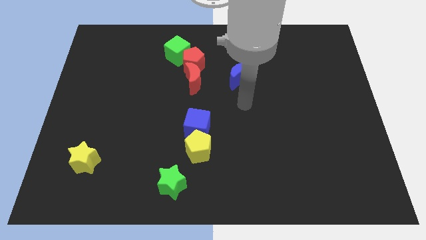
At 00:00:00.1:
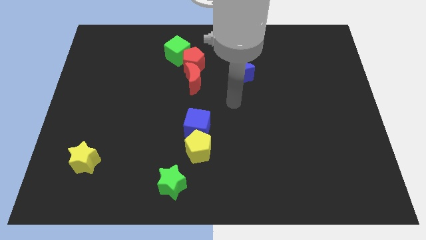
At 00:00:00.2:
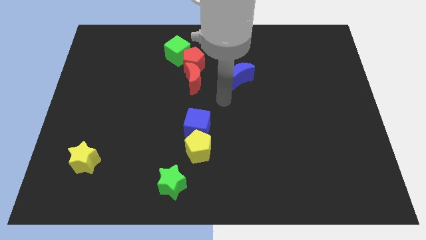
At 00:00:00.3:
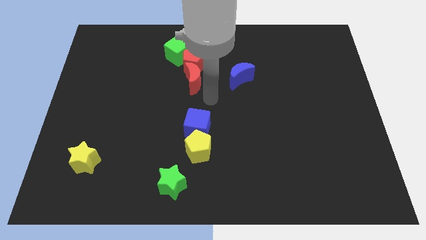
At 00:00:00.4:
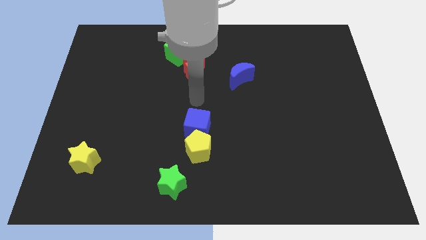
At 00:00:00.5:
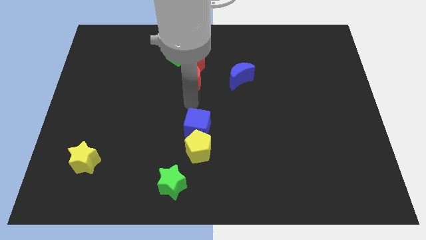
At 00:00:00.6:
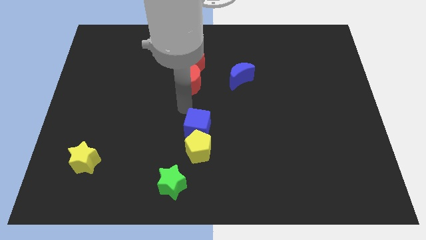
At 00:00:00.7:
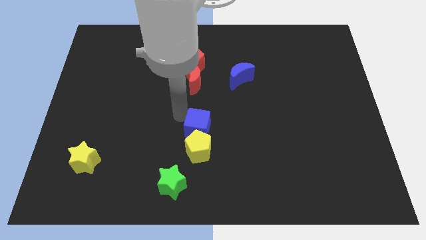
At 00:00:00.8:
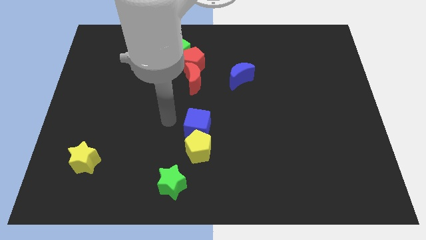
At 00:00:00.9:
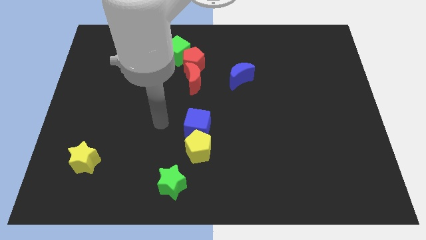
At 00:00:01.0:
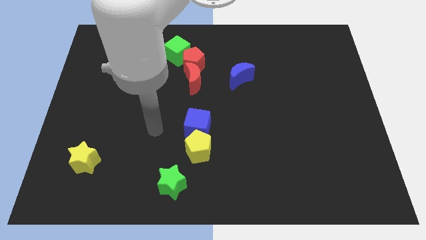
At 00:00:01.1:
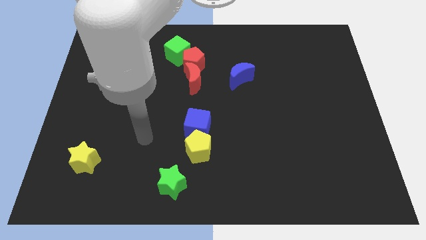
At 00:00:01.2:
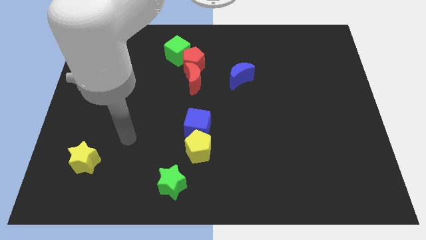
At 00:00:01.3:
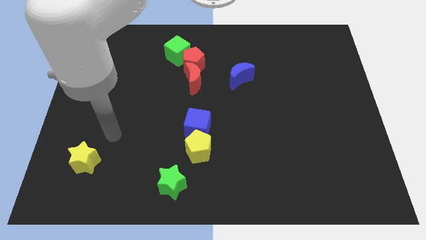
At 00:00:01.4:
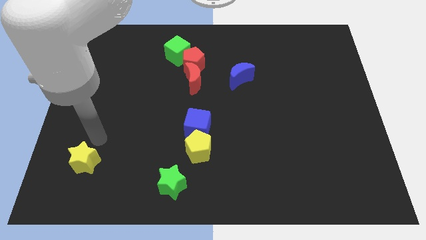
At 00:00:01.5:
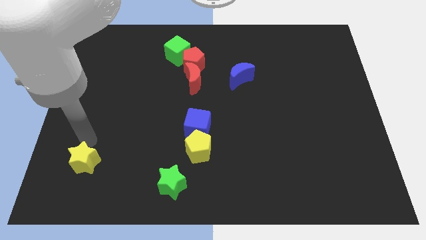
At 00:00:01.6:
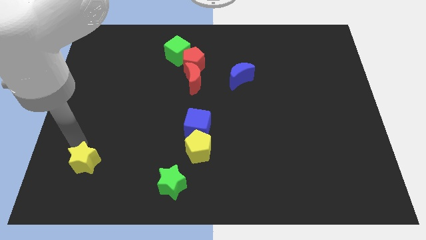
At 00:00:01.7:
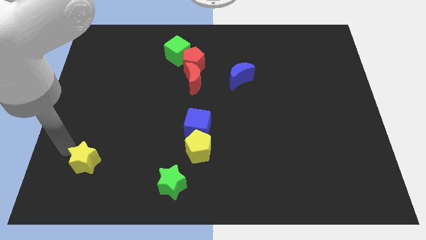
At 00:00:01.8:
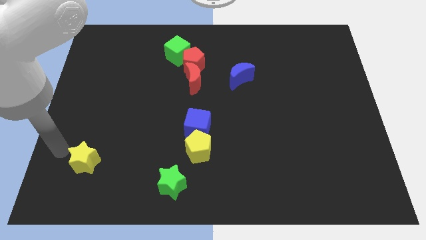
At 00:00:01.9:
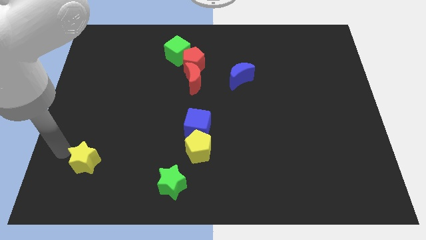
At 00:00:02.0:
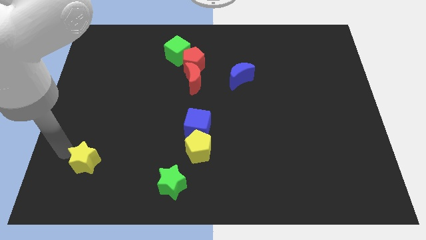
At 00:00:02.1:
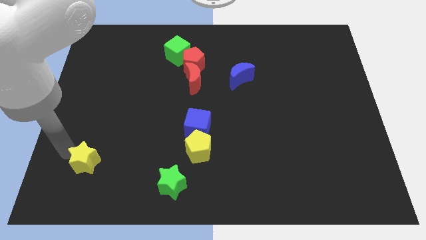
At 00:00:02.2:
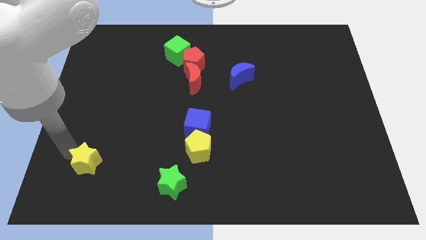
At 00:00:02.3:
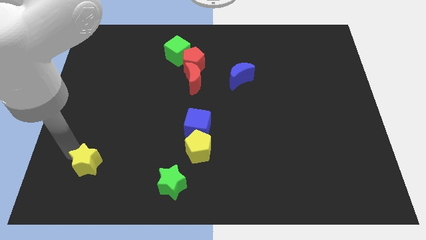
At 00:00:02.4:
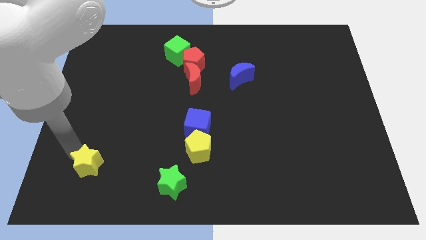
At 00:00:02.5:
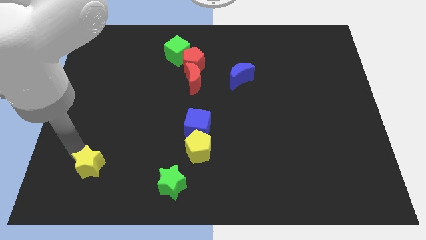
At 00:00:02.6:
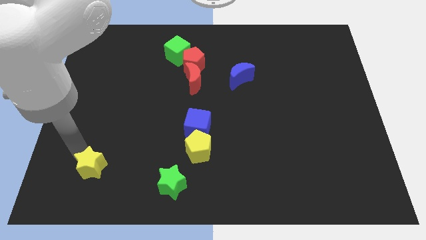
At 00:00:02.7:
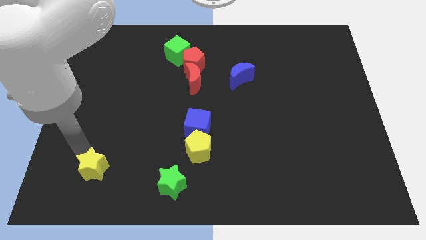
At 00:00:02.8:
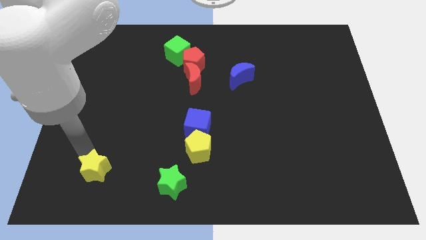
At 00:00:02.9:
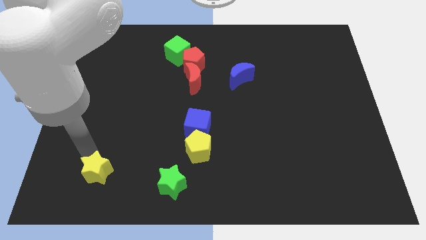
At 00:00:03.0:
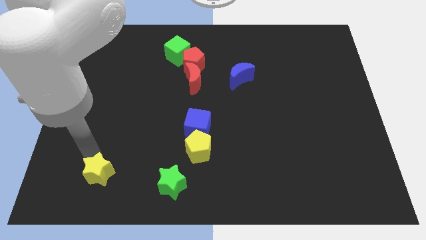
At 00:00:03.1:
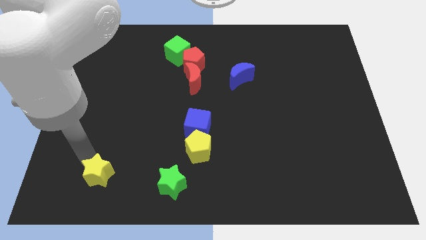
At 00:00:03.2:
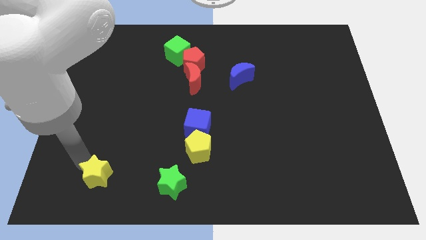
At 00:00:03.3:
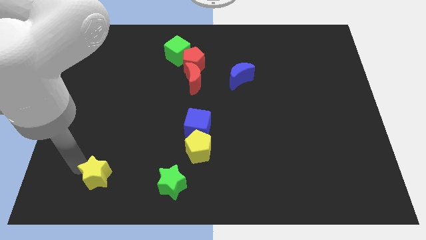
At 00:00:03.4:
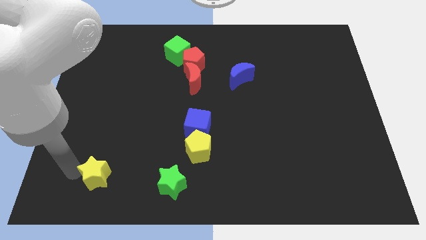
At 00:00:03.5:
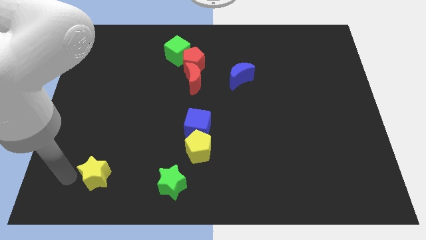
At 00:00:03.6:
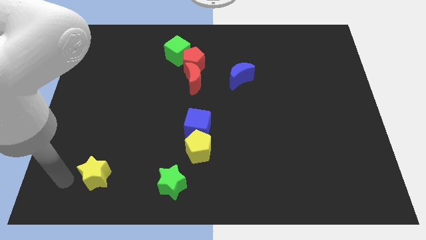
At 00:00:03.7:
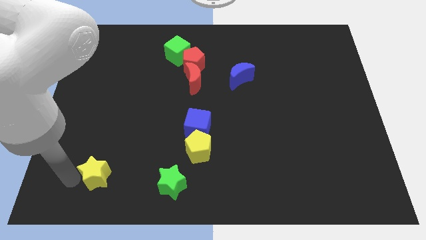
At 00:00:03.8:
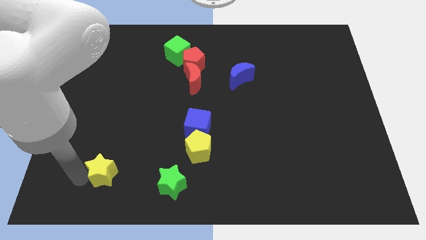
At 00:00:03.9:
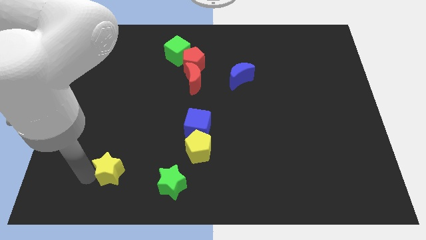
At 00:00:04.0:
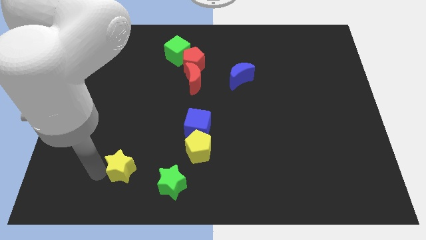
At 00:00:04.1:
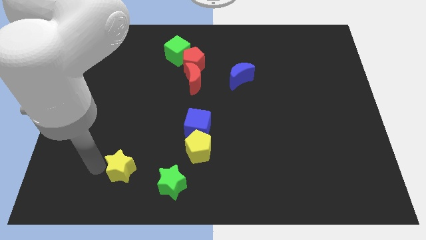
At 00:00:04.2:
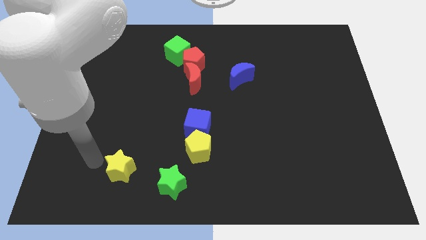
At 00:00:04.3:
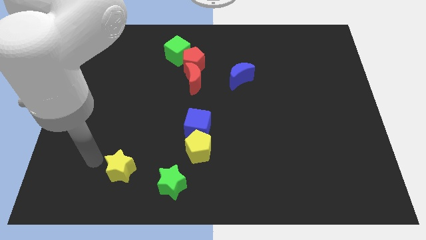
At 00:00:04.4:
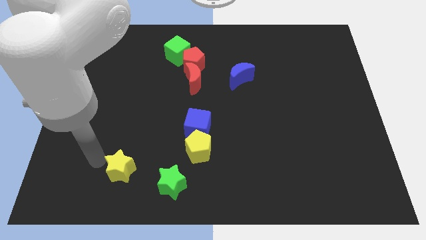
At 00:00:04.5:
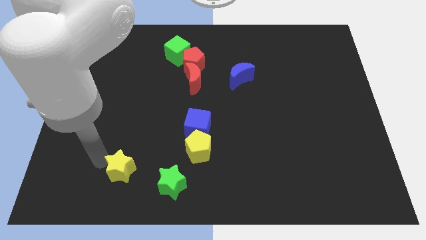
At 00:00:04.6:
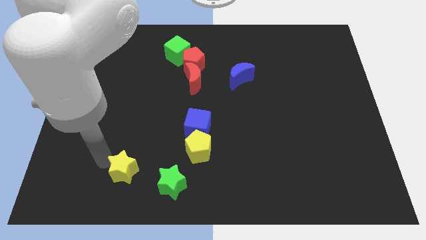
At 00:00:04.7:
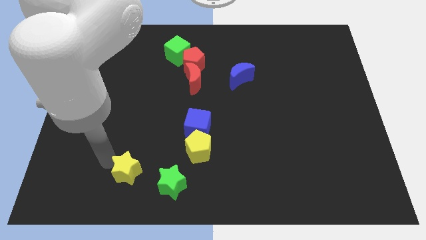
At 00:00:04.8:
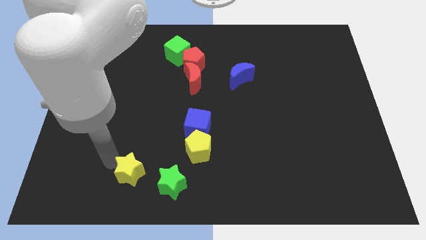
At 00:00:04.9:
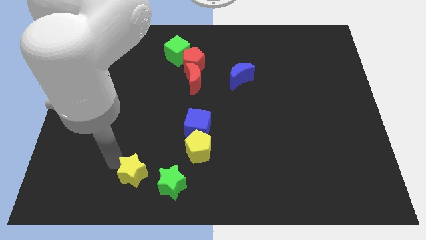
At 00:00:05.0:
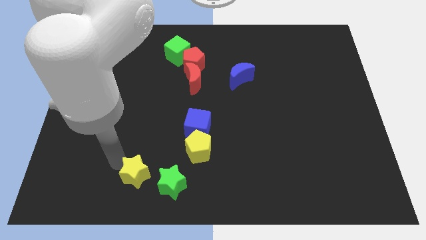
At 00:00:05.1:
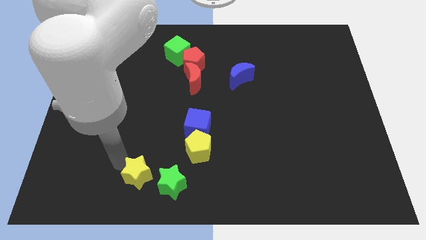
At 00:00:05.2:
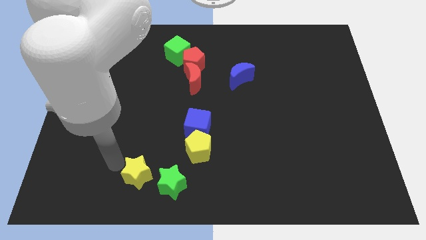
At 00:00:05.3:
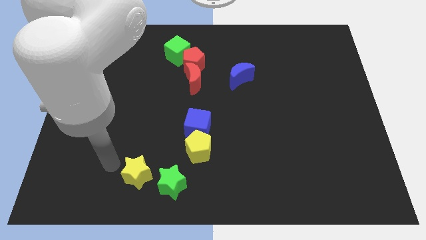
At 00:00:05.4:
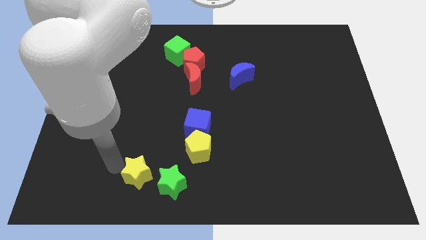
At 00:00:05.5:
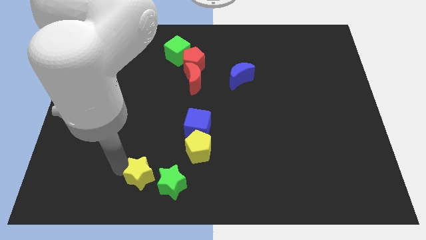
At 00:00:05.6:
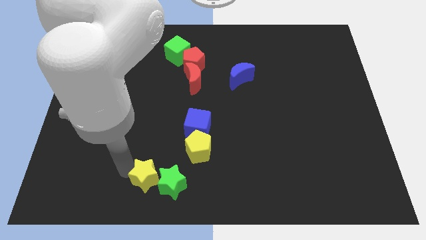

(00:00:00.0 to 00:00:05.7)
put the yellow star towards the green star

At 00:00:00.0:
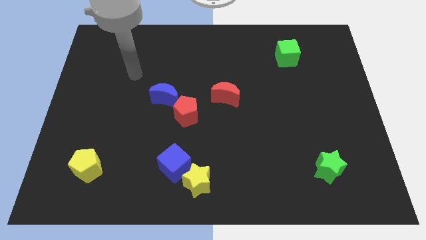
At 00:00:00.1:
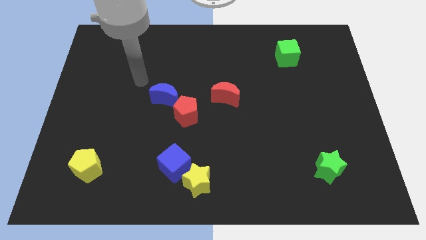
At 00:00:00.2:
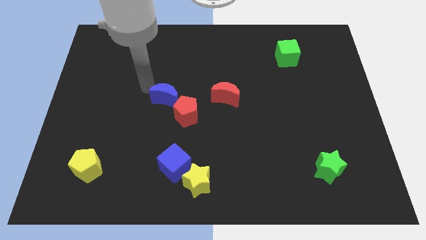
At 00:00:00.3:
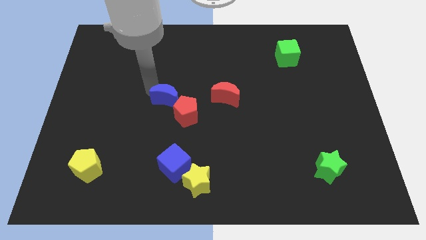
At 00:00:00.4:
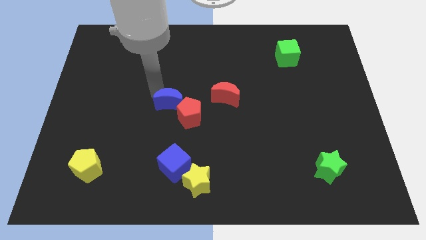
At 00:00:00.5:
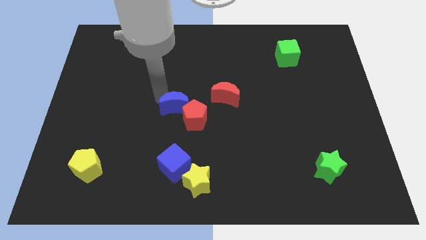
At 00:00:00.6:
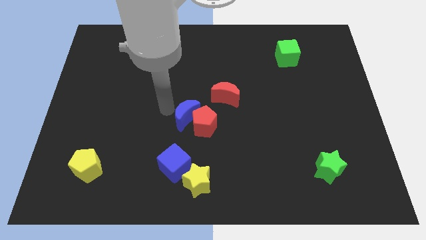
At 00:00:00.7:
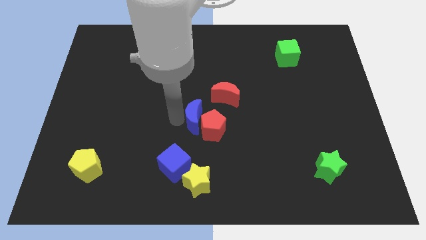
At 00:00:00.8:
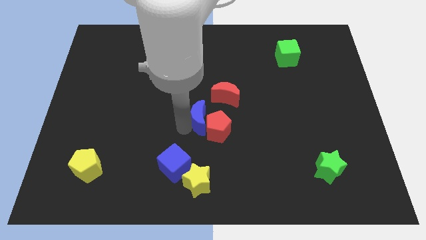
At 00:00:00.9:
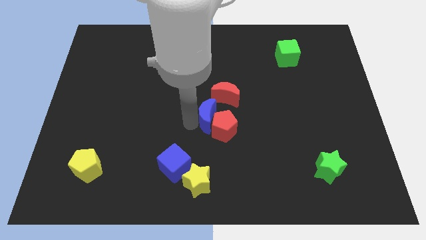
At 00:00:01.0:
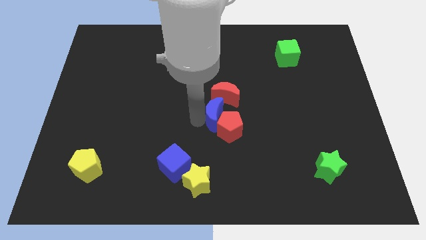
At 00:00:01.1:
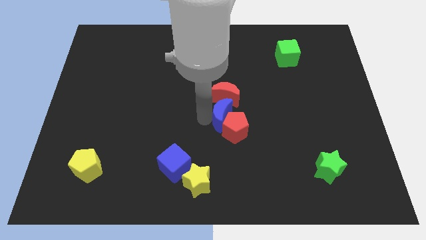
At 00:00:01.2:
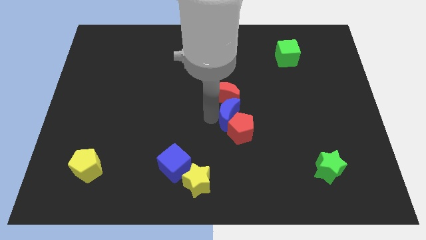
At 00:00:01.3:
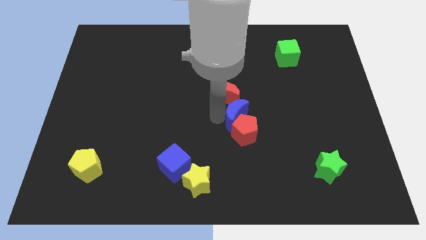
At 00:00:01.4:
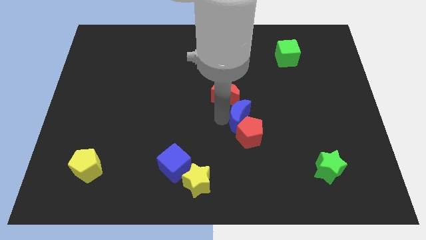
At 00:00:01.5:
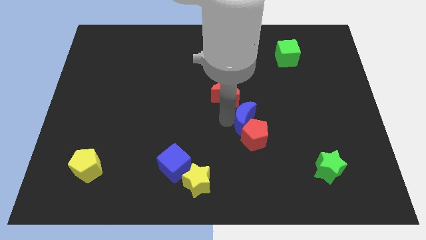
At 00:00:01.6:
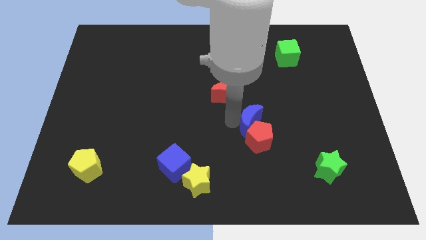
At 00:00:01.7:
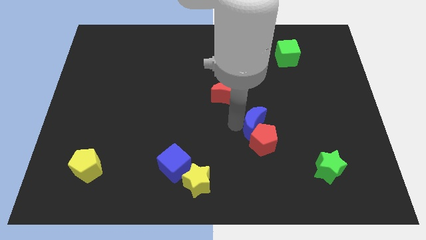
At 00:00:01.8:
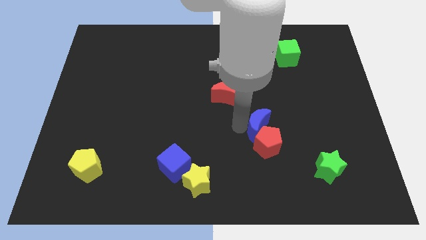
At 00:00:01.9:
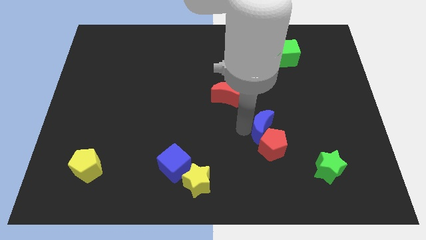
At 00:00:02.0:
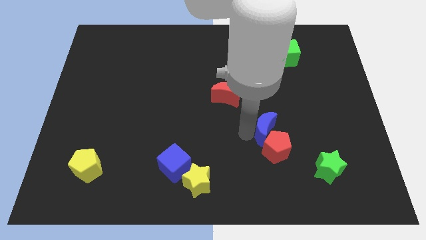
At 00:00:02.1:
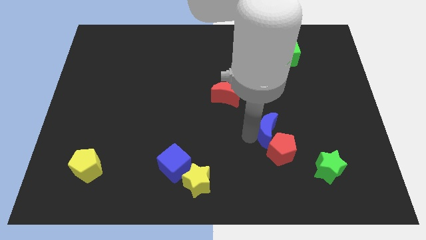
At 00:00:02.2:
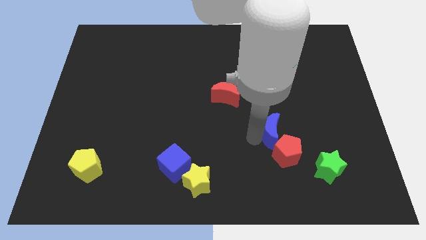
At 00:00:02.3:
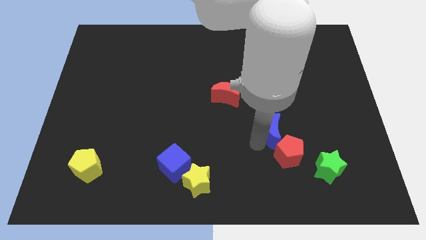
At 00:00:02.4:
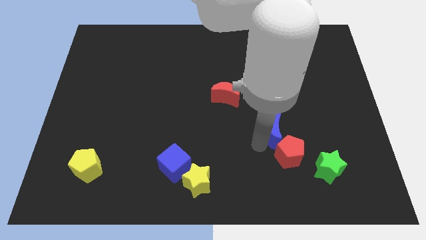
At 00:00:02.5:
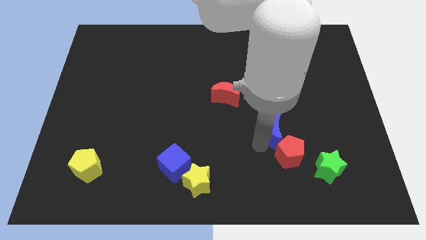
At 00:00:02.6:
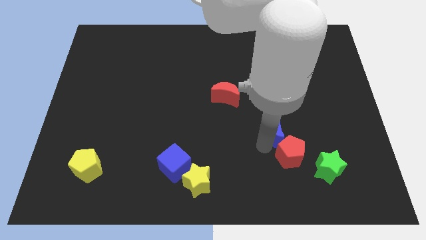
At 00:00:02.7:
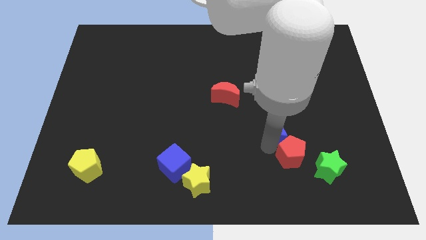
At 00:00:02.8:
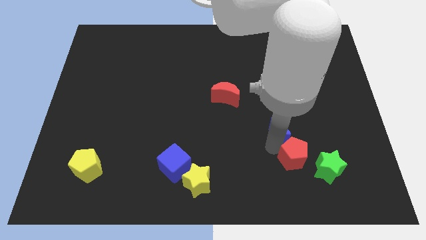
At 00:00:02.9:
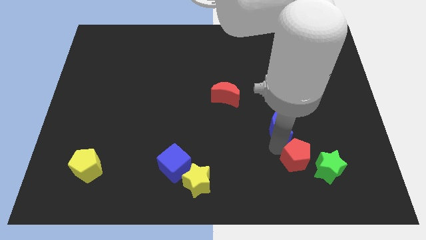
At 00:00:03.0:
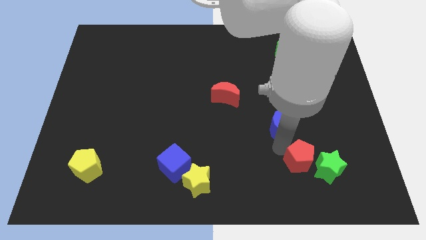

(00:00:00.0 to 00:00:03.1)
put the red pentagon close to the green star
